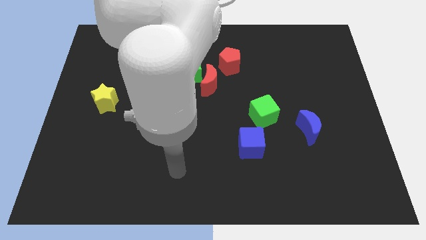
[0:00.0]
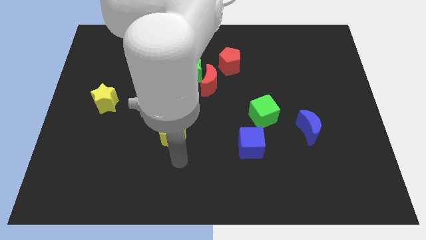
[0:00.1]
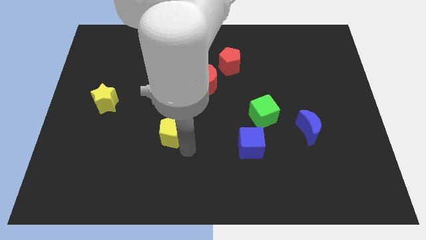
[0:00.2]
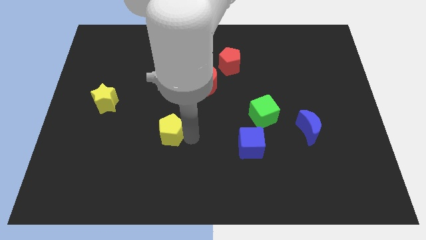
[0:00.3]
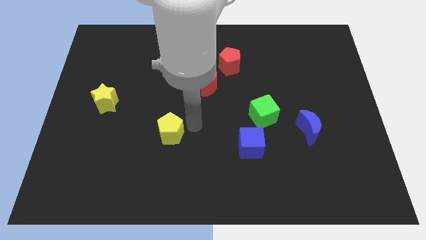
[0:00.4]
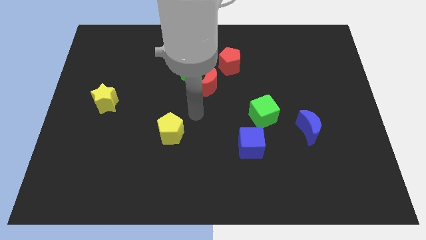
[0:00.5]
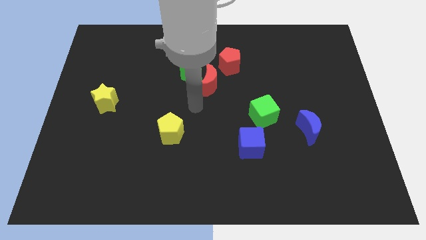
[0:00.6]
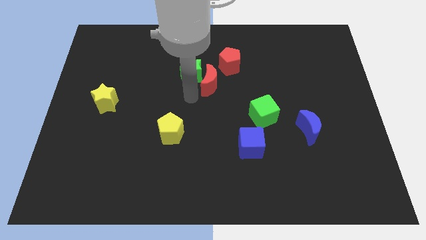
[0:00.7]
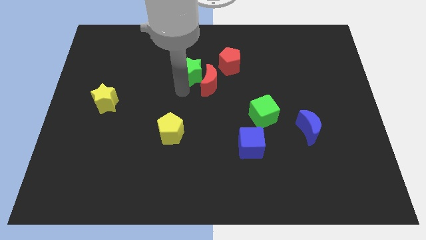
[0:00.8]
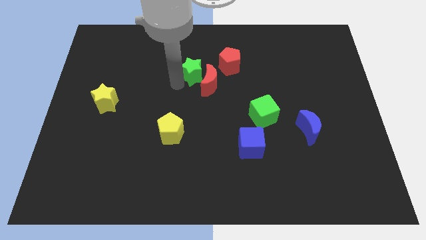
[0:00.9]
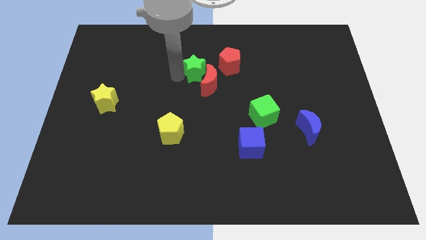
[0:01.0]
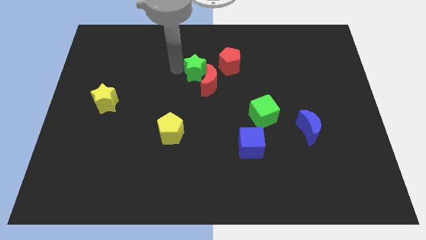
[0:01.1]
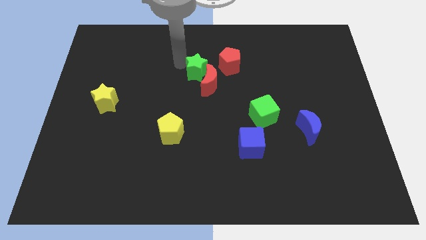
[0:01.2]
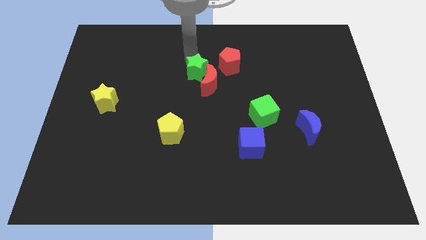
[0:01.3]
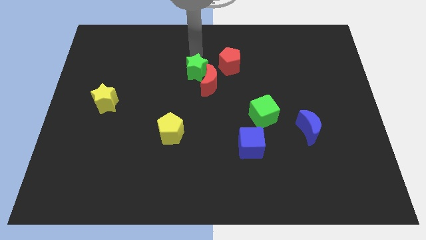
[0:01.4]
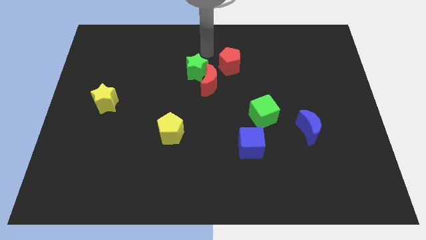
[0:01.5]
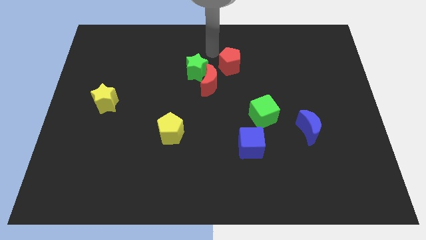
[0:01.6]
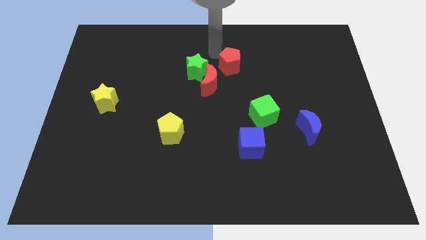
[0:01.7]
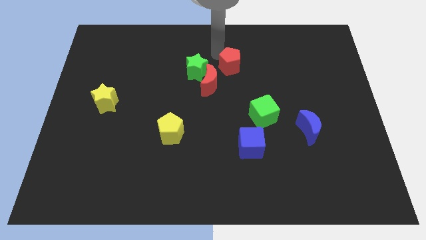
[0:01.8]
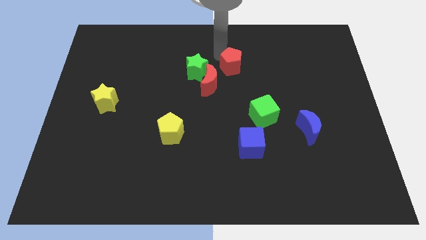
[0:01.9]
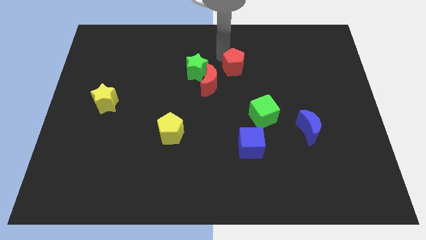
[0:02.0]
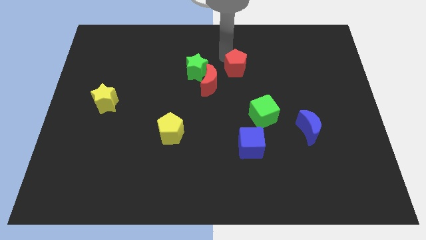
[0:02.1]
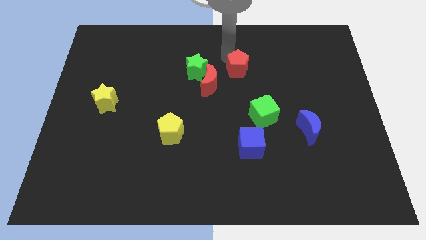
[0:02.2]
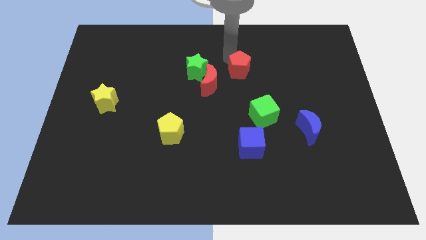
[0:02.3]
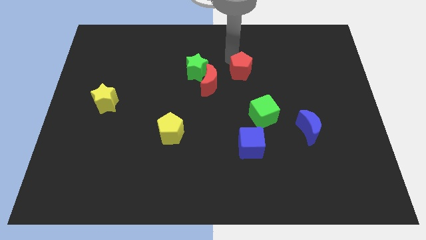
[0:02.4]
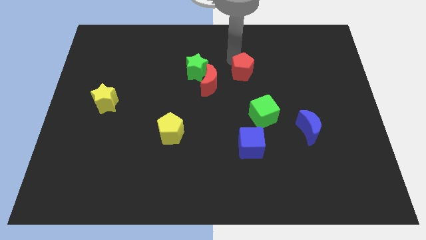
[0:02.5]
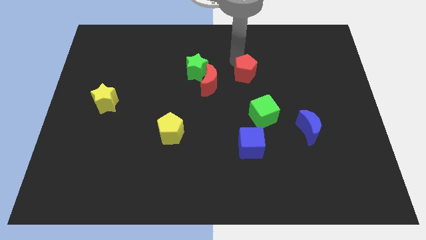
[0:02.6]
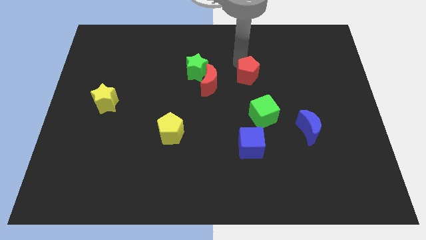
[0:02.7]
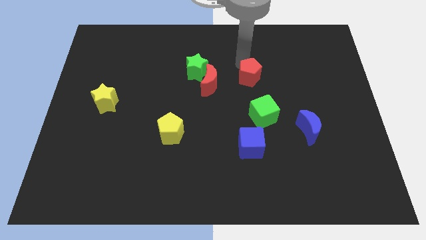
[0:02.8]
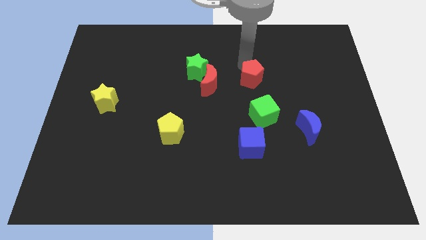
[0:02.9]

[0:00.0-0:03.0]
slightly slide the red pentagon diagonally down and to the right

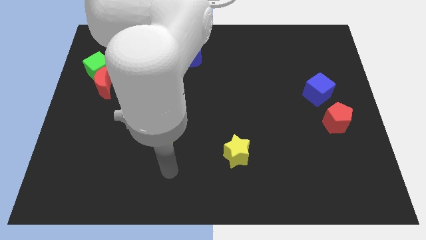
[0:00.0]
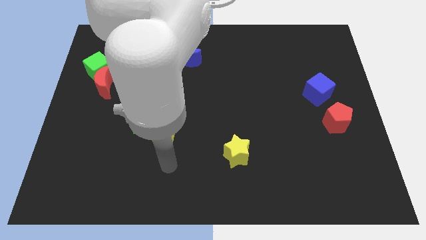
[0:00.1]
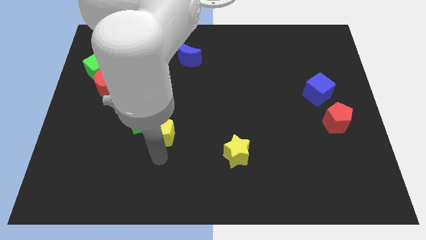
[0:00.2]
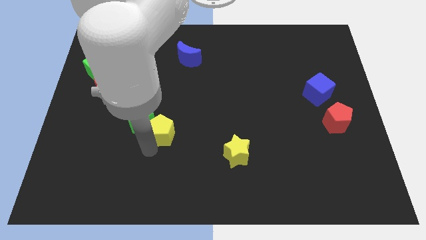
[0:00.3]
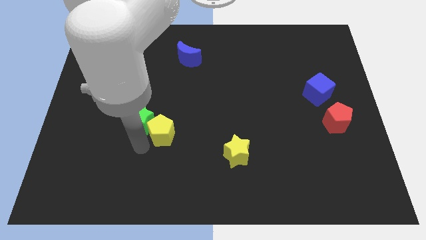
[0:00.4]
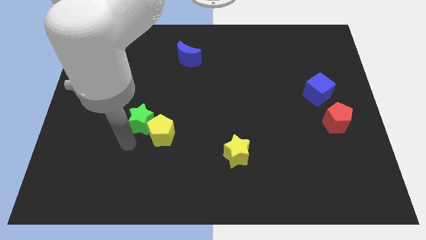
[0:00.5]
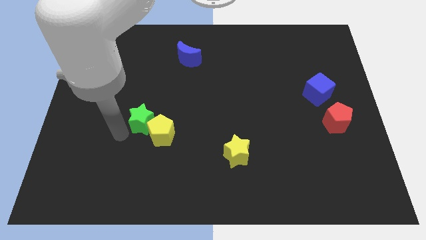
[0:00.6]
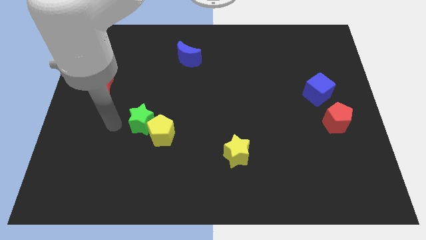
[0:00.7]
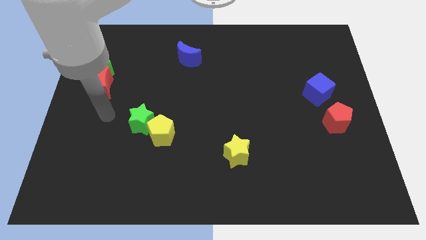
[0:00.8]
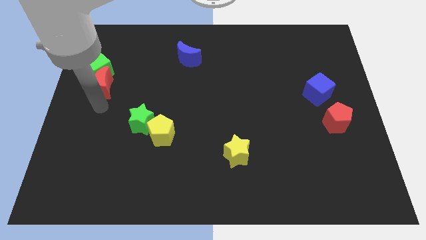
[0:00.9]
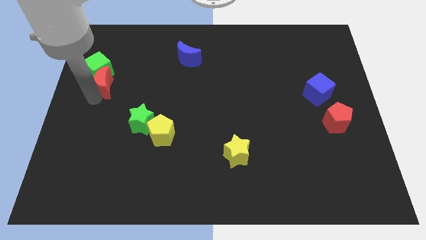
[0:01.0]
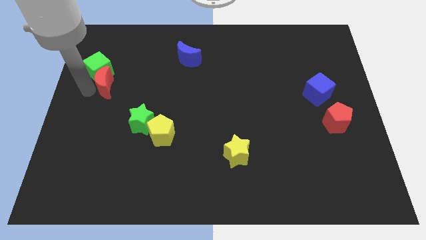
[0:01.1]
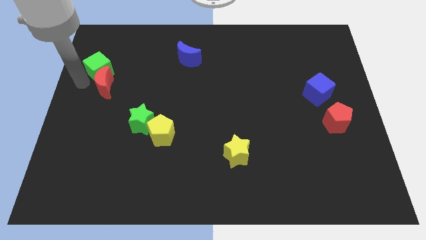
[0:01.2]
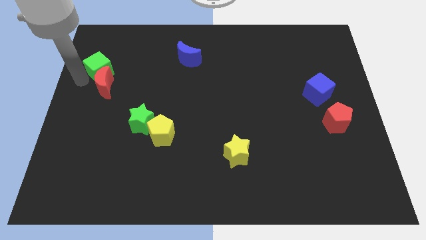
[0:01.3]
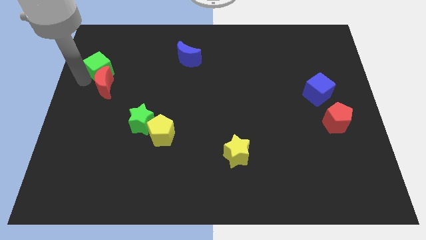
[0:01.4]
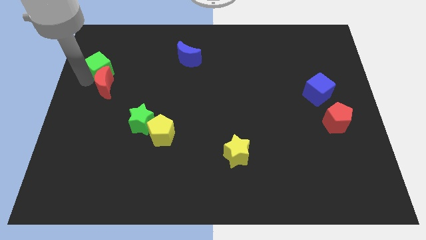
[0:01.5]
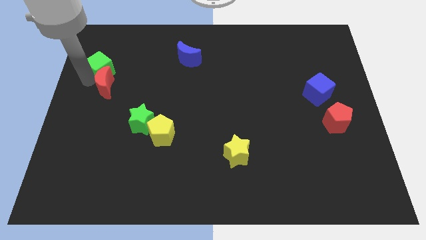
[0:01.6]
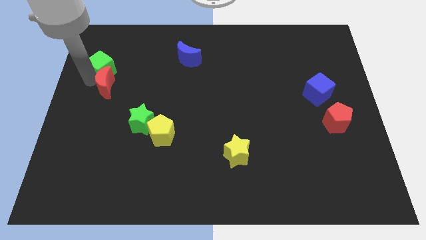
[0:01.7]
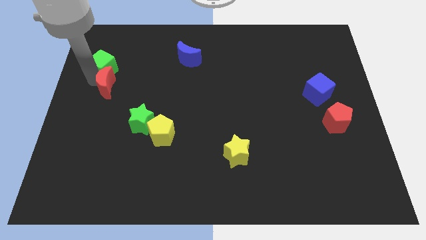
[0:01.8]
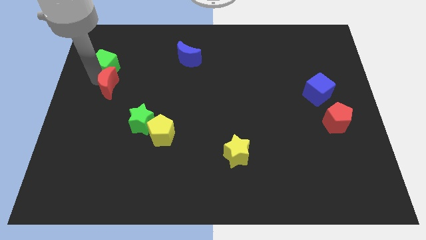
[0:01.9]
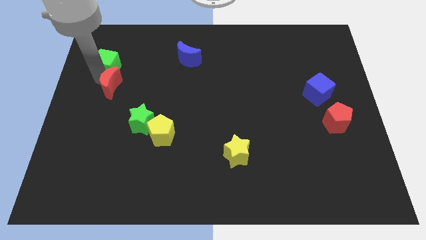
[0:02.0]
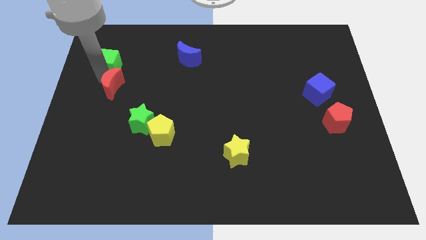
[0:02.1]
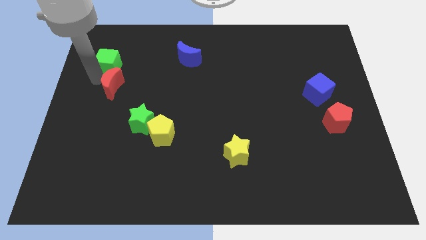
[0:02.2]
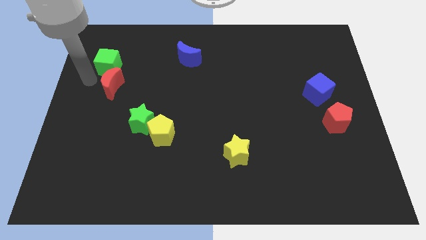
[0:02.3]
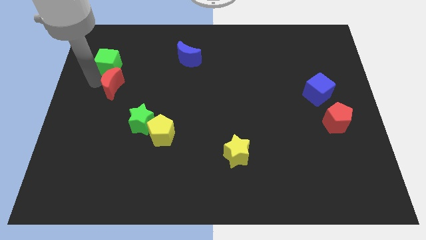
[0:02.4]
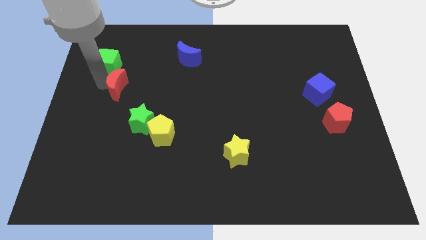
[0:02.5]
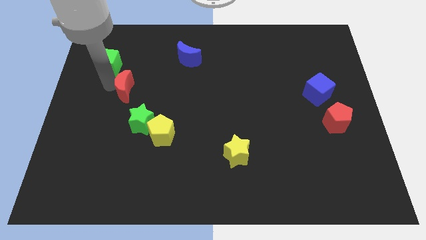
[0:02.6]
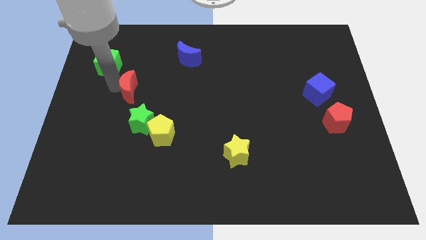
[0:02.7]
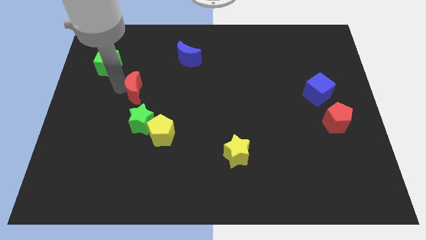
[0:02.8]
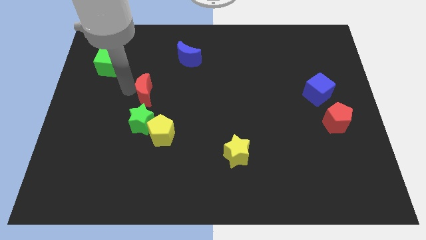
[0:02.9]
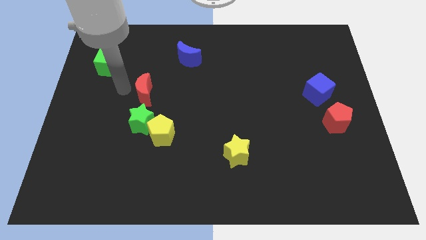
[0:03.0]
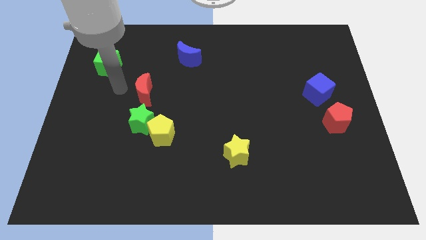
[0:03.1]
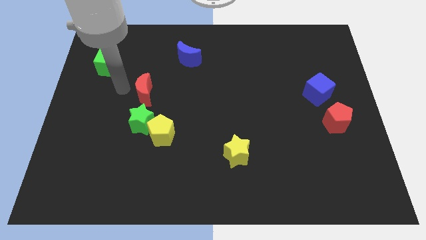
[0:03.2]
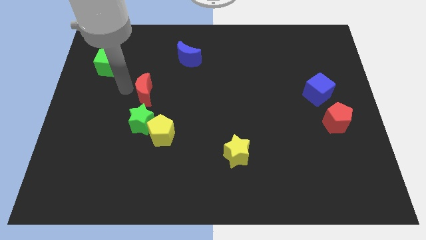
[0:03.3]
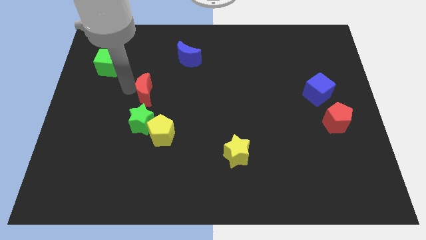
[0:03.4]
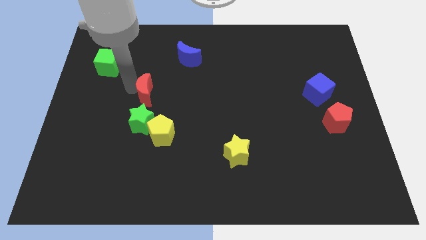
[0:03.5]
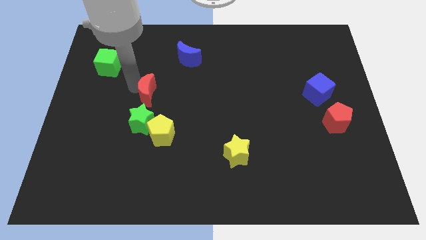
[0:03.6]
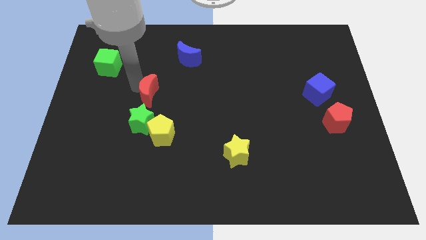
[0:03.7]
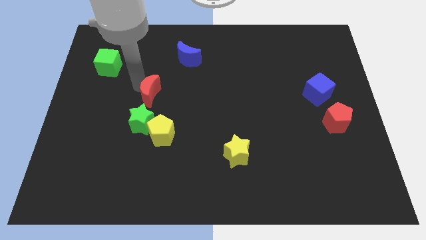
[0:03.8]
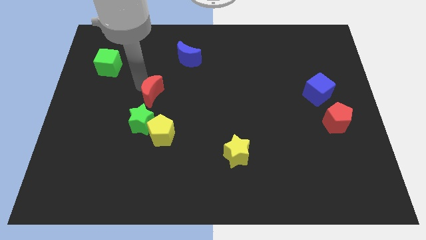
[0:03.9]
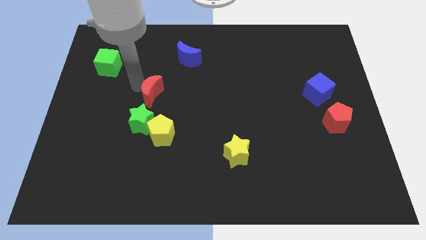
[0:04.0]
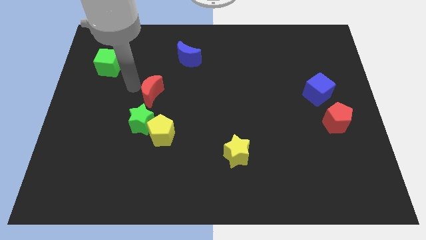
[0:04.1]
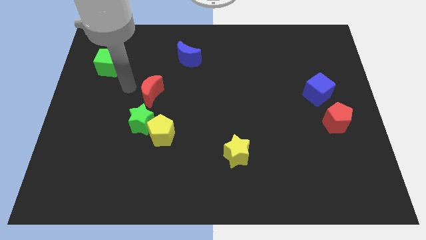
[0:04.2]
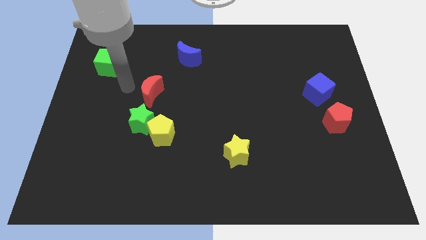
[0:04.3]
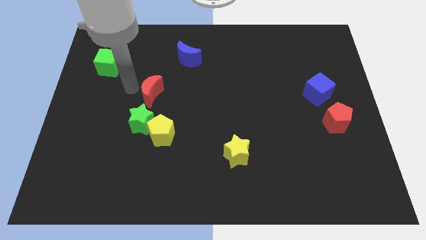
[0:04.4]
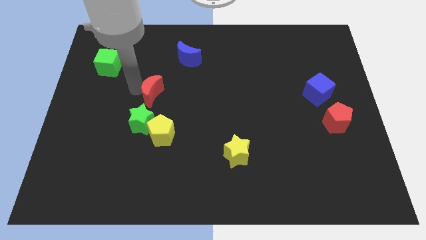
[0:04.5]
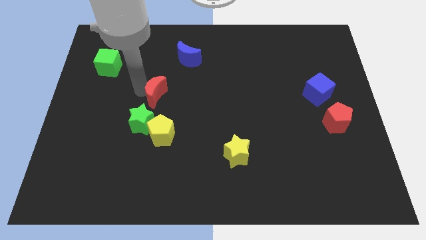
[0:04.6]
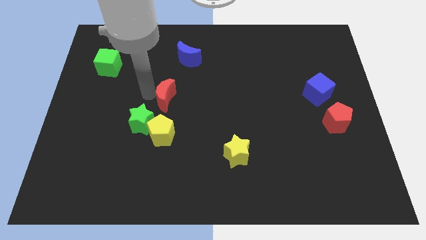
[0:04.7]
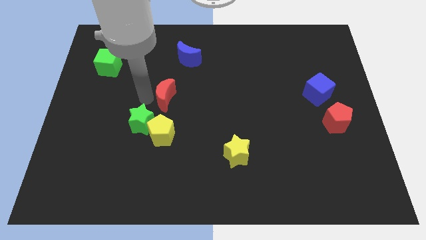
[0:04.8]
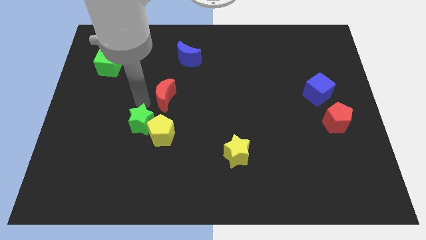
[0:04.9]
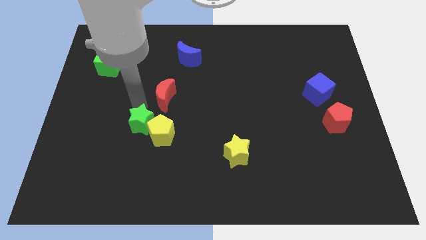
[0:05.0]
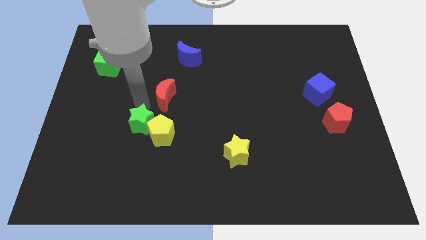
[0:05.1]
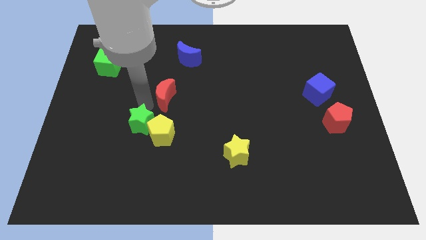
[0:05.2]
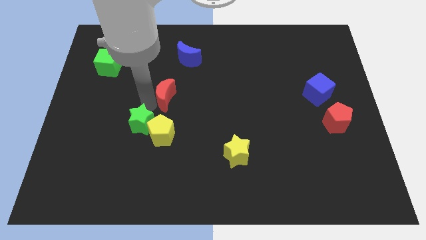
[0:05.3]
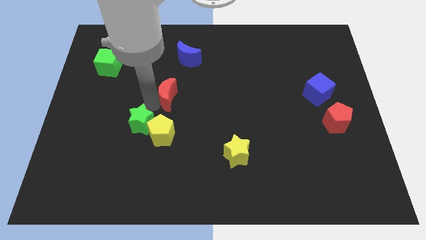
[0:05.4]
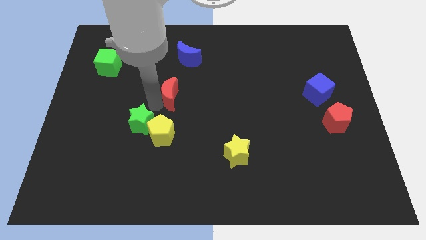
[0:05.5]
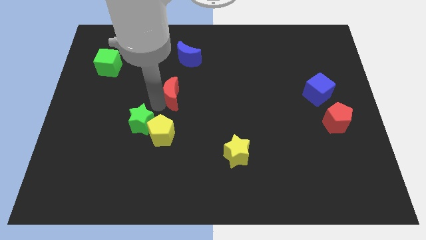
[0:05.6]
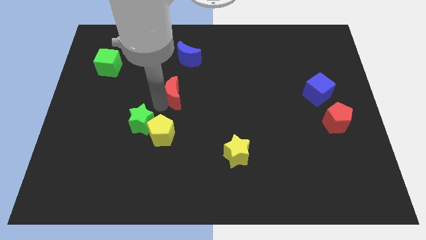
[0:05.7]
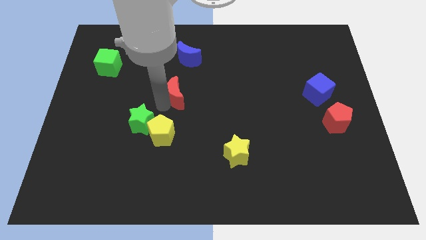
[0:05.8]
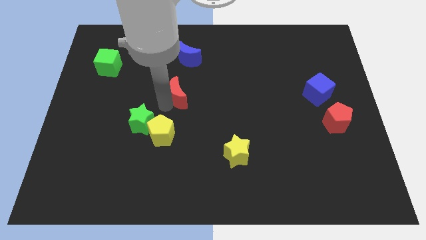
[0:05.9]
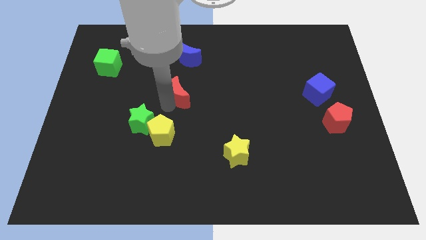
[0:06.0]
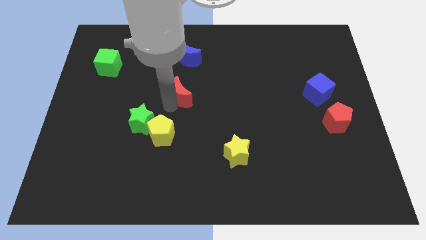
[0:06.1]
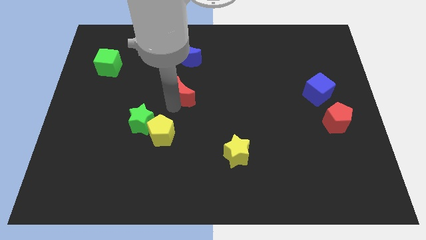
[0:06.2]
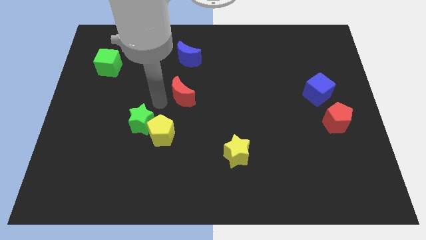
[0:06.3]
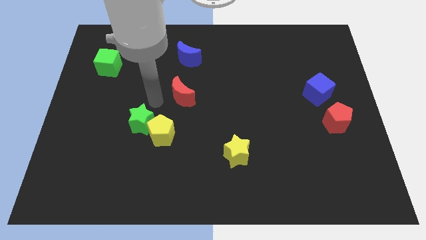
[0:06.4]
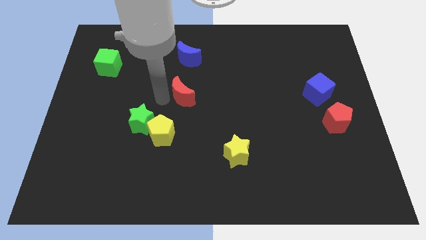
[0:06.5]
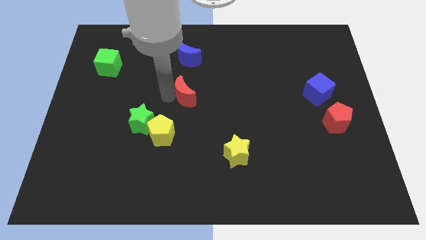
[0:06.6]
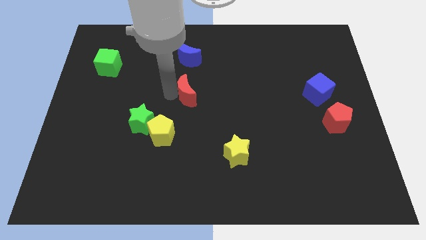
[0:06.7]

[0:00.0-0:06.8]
push the red moon to the right
